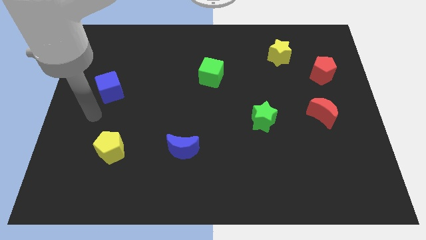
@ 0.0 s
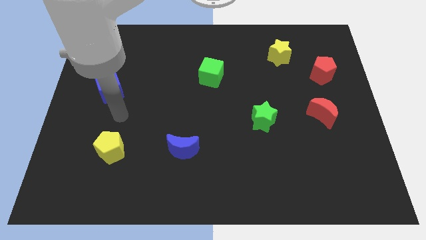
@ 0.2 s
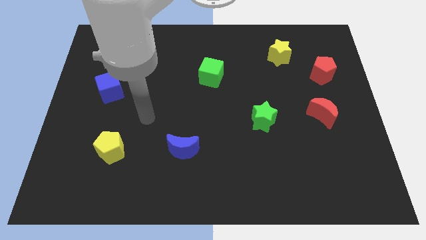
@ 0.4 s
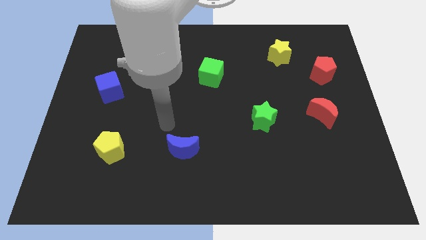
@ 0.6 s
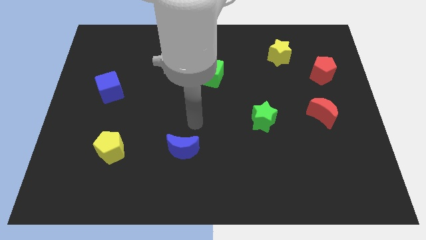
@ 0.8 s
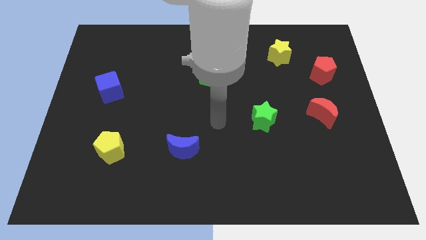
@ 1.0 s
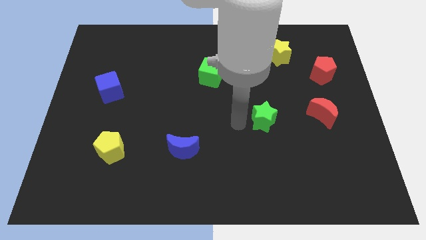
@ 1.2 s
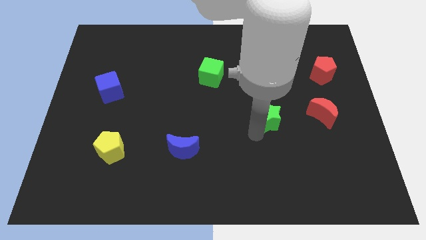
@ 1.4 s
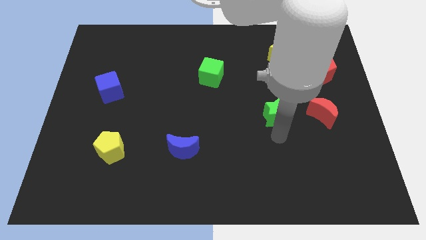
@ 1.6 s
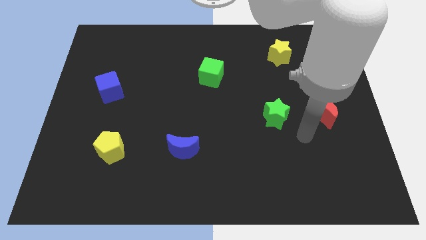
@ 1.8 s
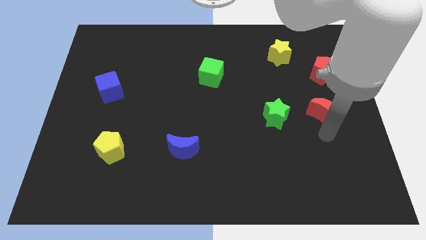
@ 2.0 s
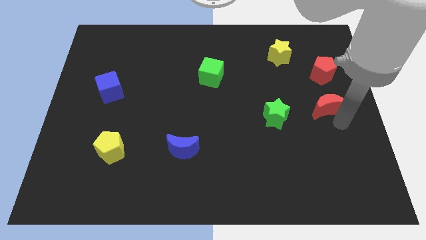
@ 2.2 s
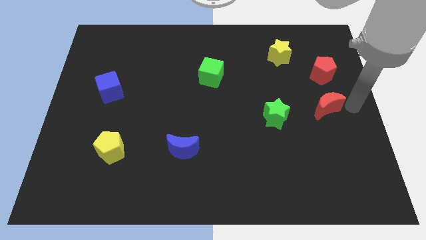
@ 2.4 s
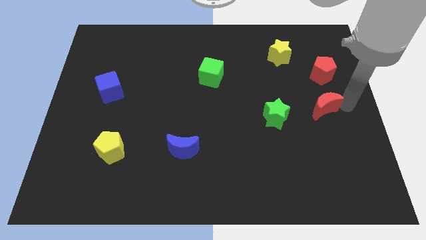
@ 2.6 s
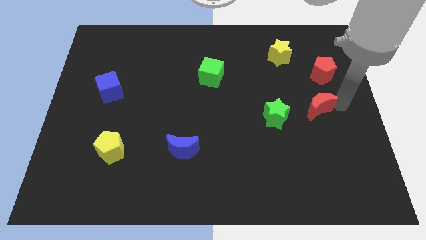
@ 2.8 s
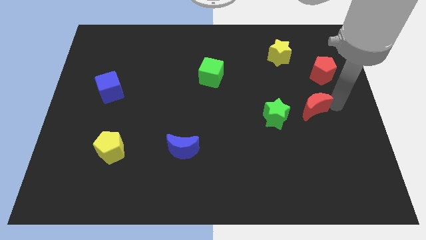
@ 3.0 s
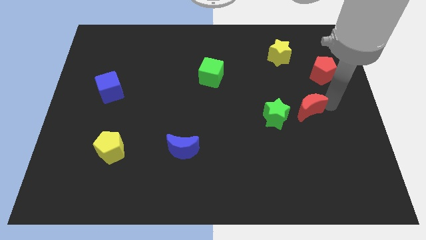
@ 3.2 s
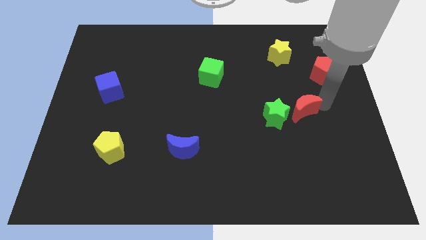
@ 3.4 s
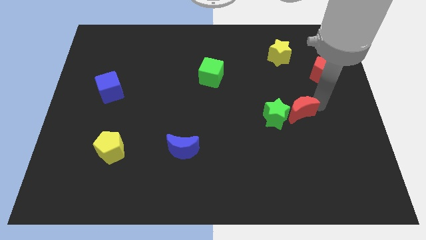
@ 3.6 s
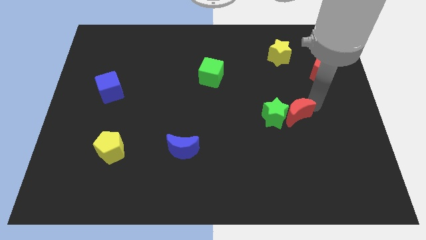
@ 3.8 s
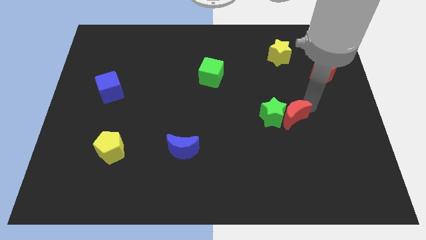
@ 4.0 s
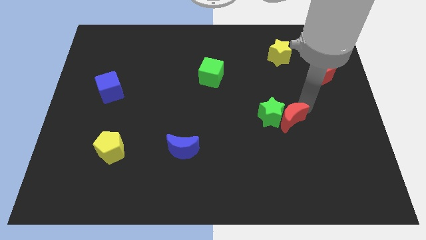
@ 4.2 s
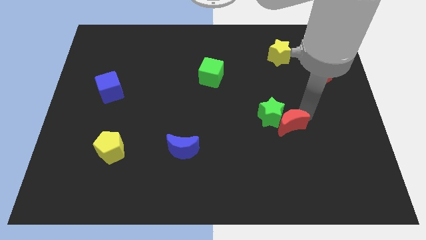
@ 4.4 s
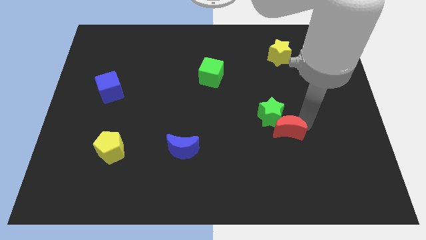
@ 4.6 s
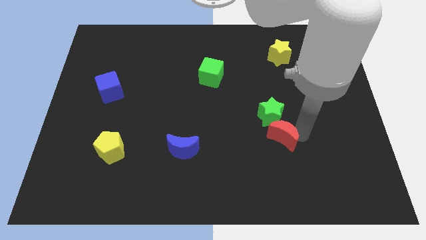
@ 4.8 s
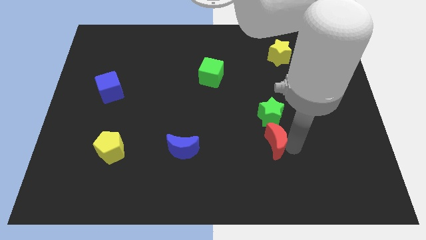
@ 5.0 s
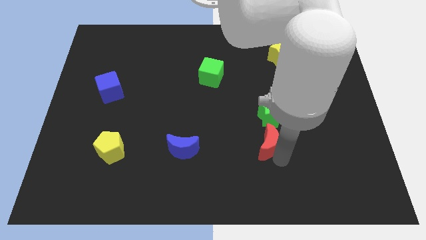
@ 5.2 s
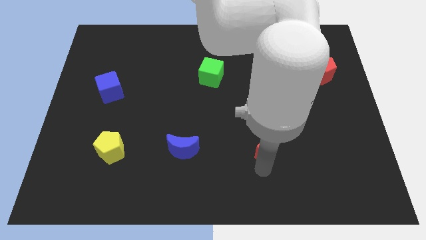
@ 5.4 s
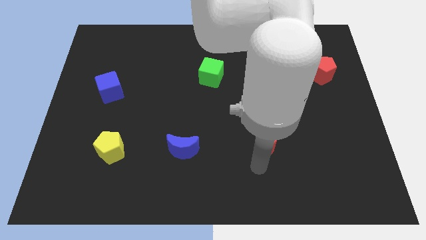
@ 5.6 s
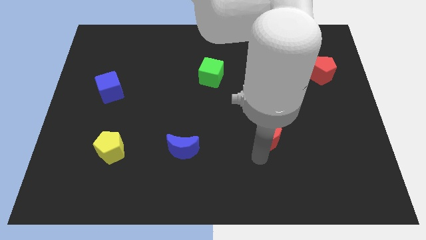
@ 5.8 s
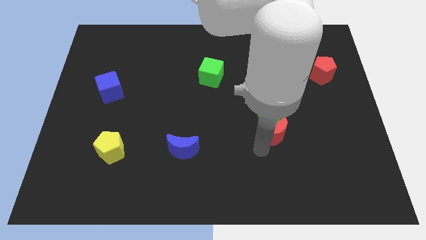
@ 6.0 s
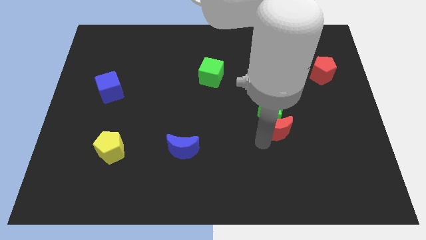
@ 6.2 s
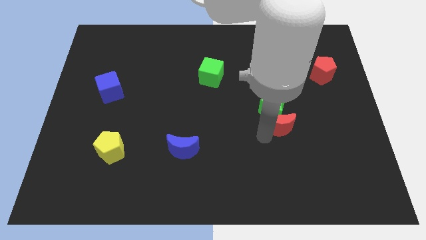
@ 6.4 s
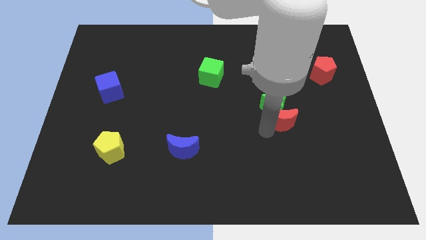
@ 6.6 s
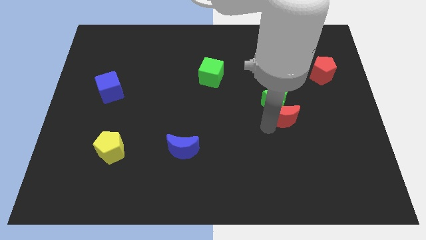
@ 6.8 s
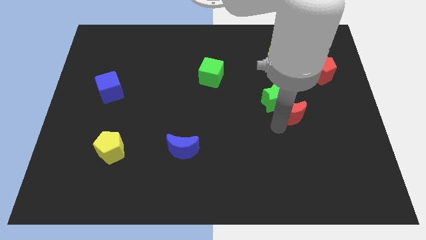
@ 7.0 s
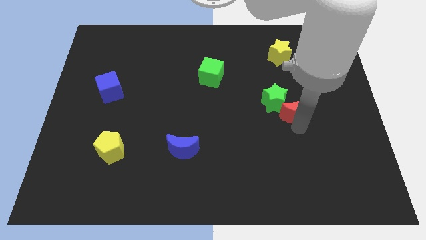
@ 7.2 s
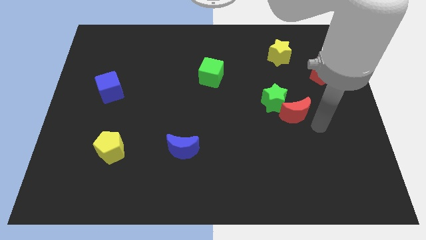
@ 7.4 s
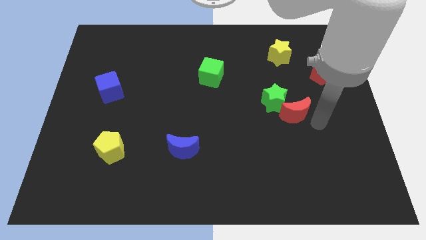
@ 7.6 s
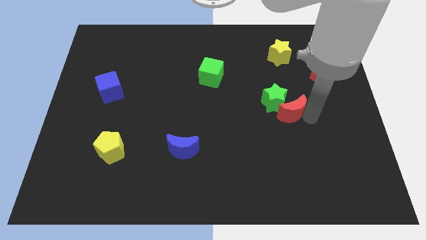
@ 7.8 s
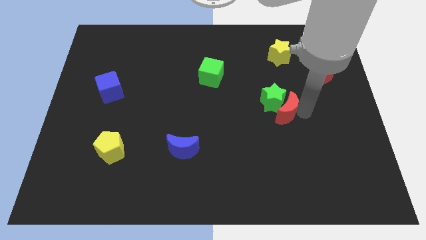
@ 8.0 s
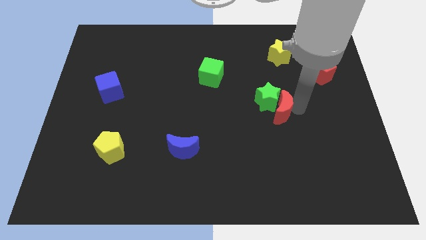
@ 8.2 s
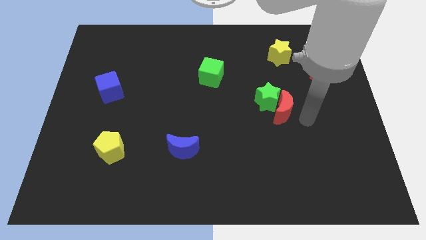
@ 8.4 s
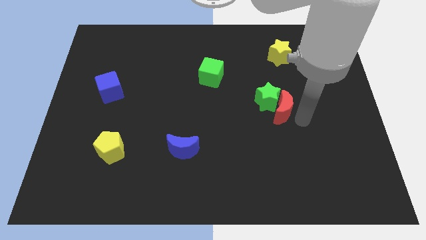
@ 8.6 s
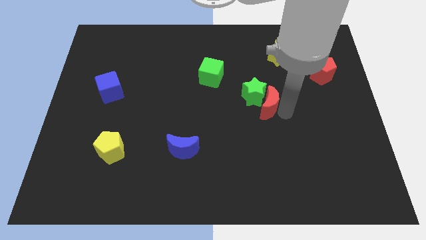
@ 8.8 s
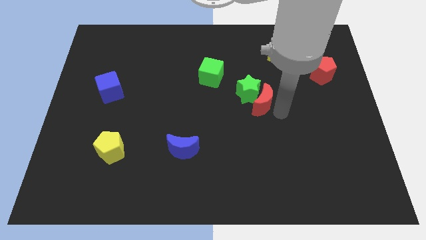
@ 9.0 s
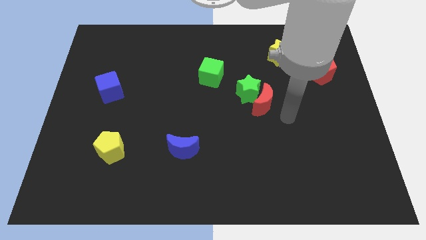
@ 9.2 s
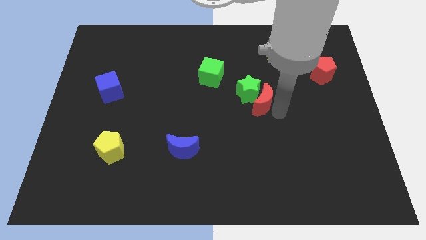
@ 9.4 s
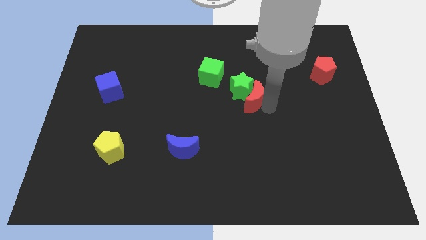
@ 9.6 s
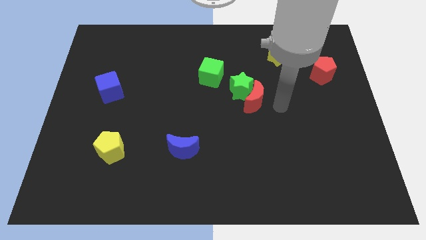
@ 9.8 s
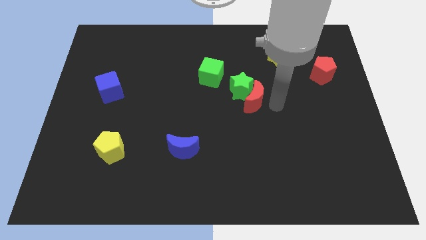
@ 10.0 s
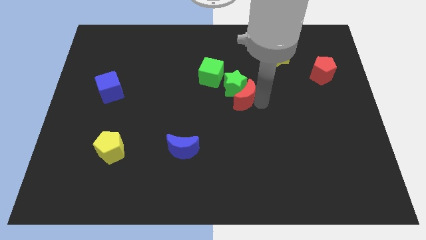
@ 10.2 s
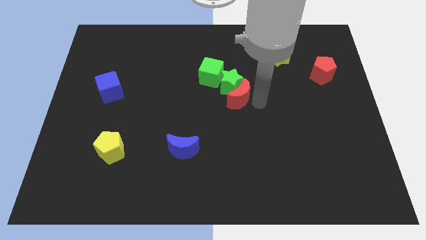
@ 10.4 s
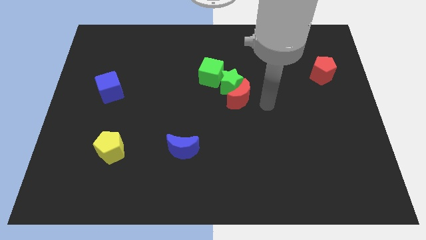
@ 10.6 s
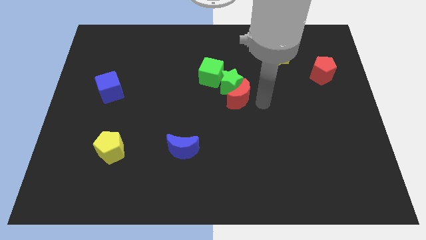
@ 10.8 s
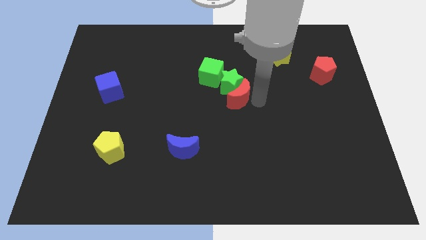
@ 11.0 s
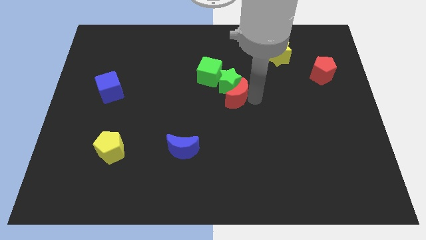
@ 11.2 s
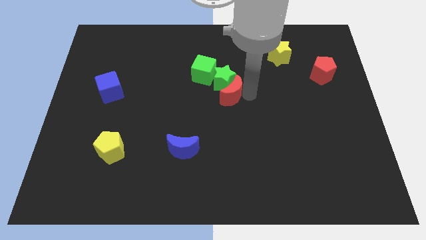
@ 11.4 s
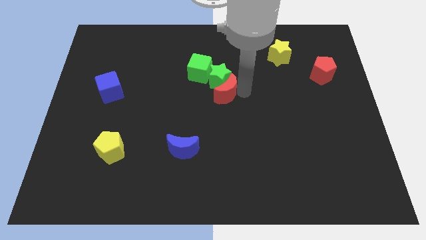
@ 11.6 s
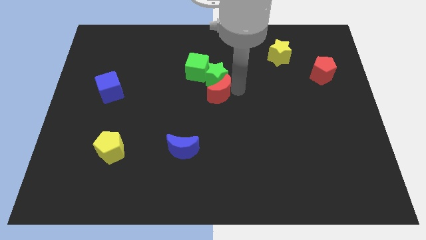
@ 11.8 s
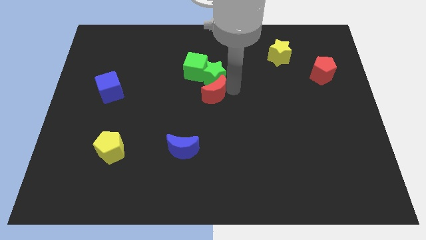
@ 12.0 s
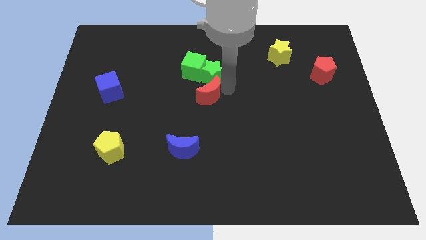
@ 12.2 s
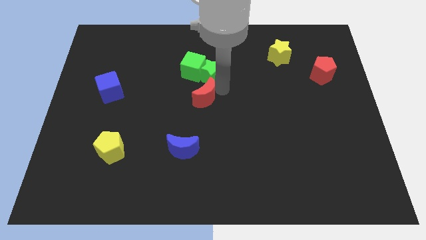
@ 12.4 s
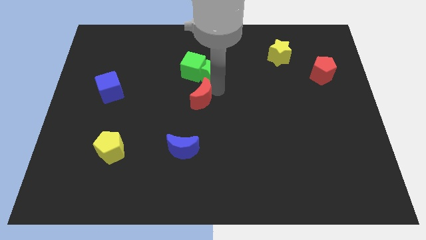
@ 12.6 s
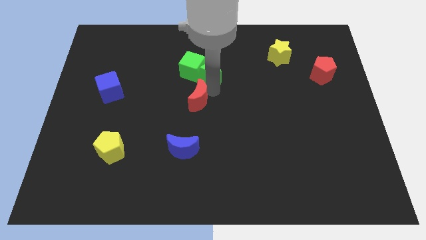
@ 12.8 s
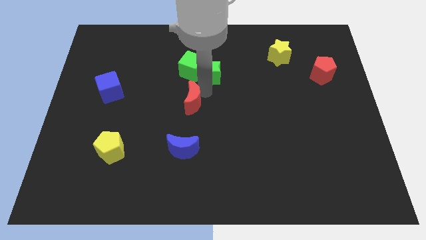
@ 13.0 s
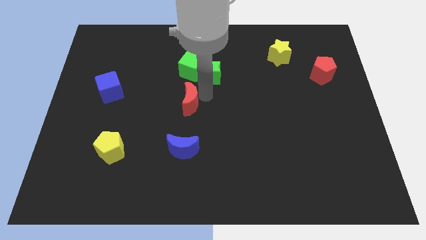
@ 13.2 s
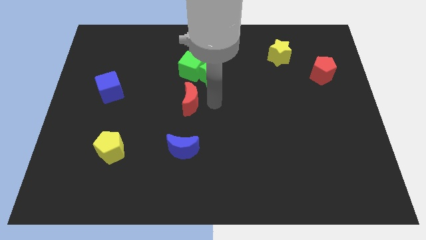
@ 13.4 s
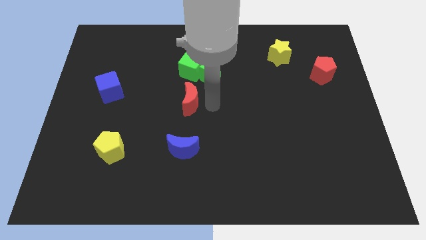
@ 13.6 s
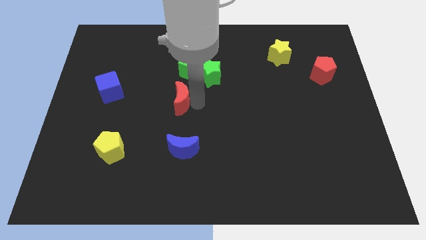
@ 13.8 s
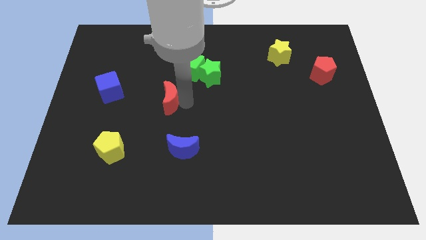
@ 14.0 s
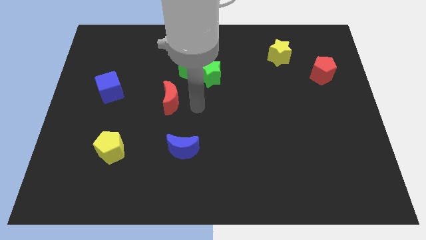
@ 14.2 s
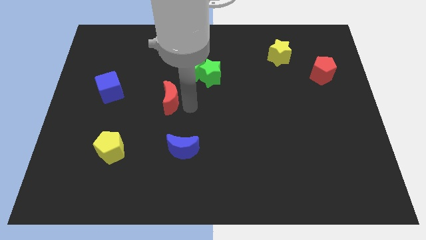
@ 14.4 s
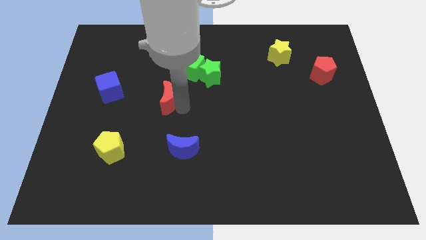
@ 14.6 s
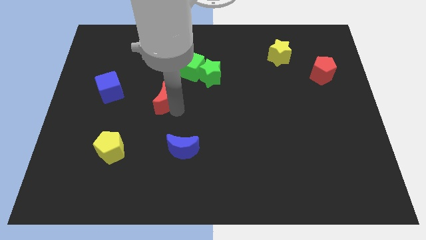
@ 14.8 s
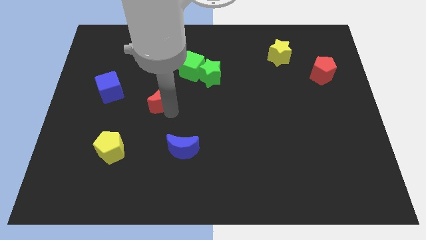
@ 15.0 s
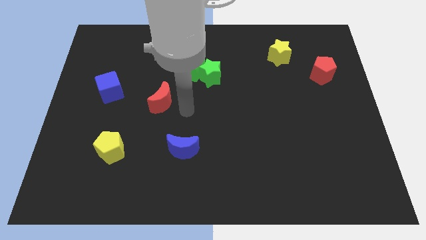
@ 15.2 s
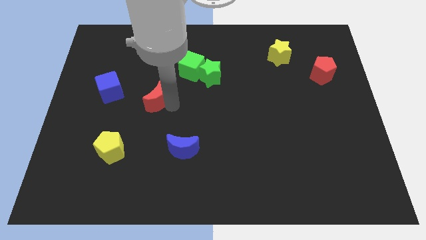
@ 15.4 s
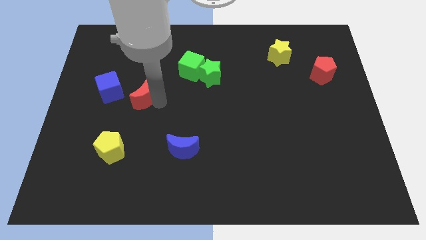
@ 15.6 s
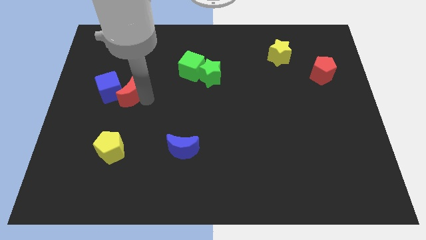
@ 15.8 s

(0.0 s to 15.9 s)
push the red moon next to the blue cube
